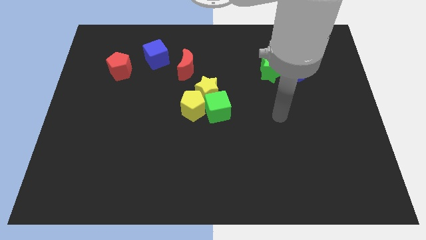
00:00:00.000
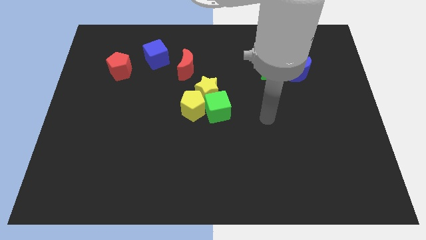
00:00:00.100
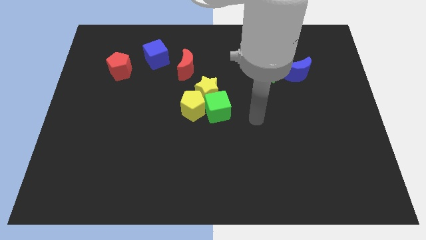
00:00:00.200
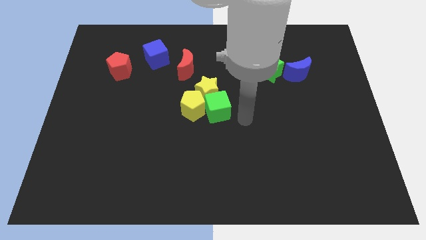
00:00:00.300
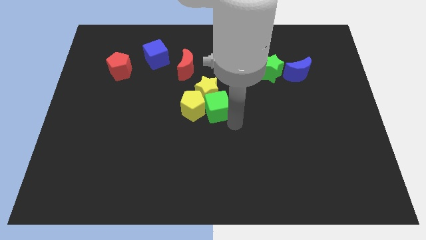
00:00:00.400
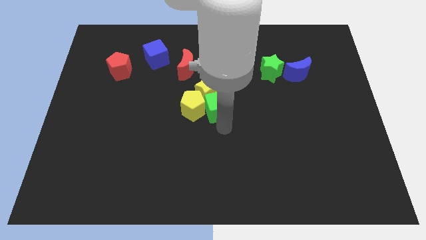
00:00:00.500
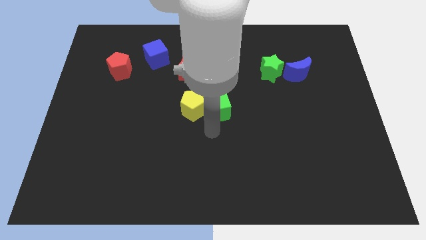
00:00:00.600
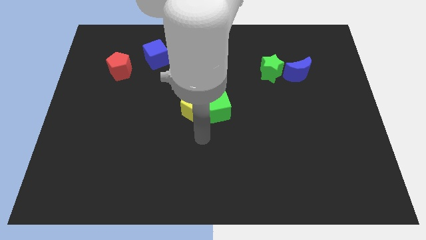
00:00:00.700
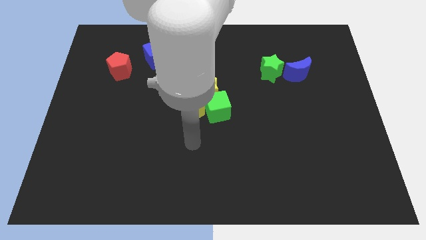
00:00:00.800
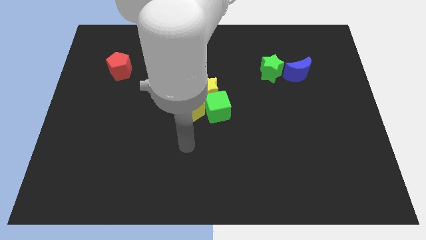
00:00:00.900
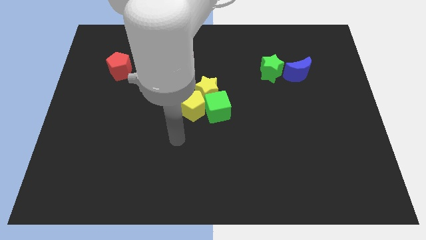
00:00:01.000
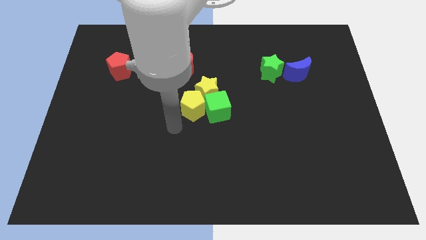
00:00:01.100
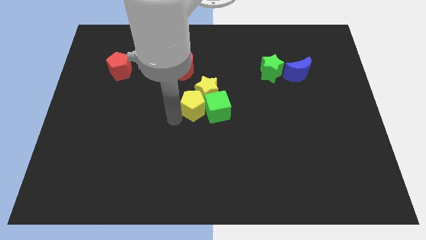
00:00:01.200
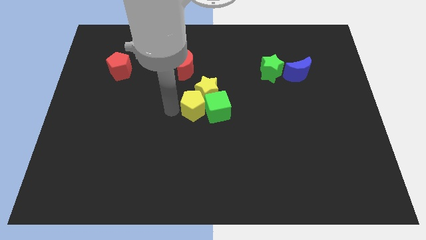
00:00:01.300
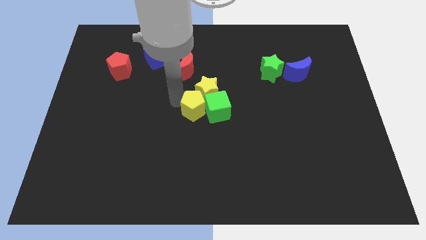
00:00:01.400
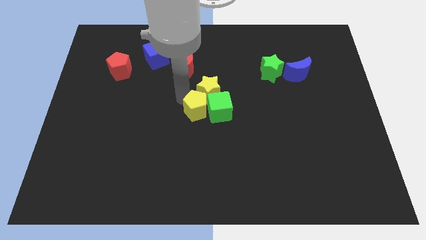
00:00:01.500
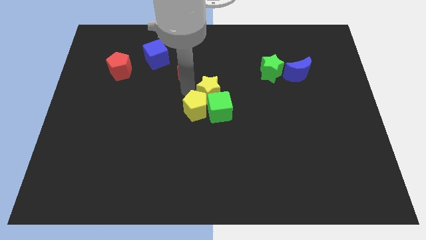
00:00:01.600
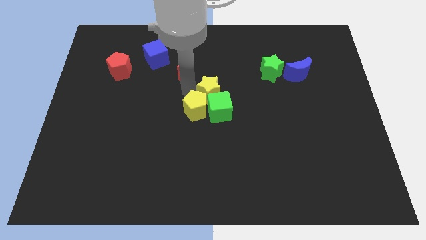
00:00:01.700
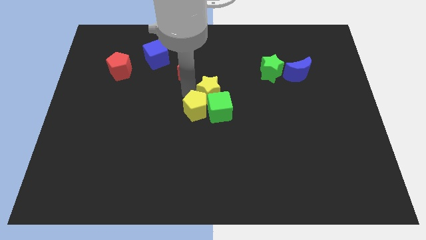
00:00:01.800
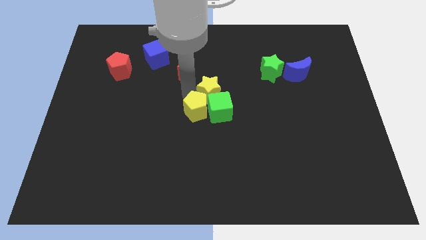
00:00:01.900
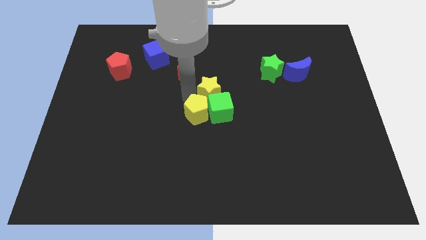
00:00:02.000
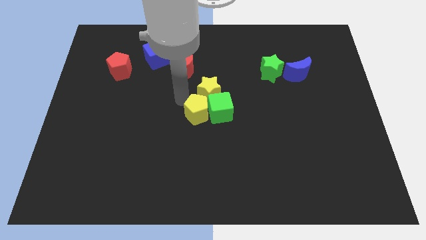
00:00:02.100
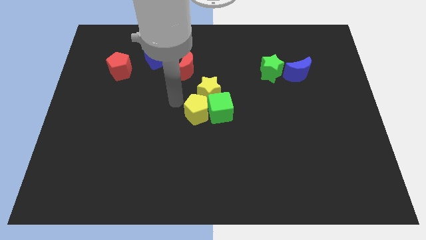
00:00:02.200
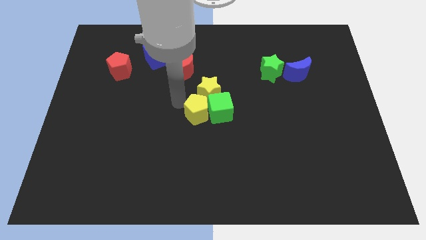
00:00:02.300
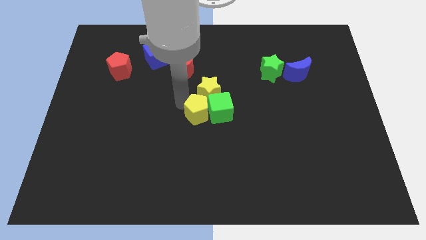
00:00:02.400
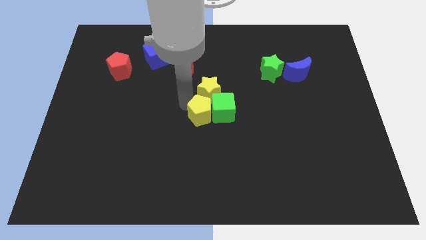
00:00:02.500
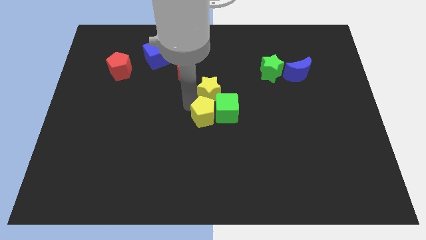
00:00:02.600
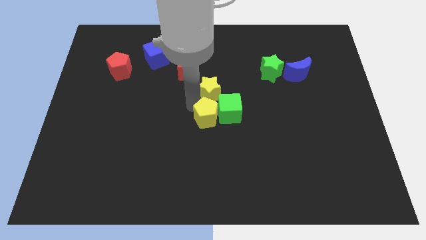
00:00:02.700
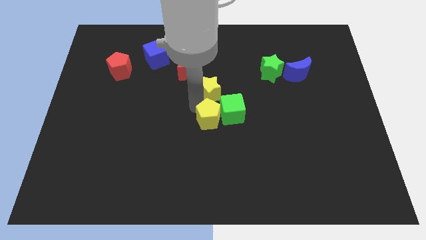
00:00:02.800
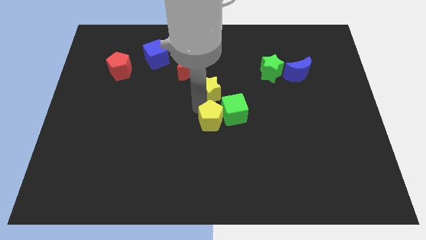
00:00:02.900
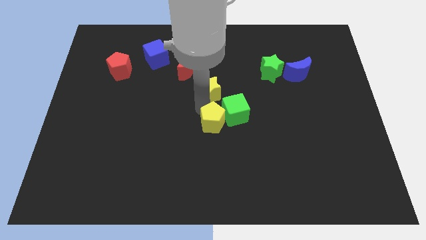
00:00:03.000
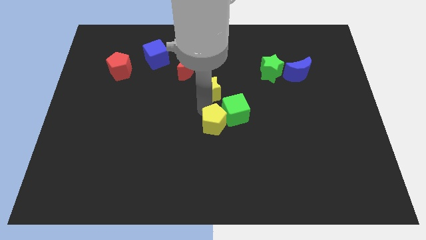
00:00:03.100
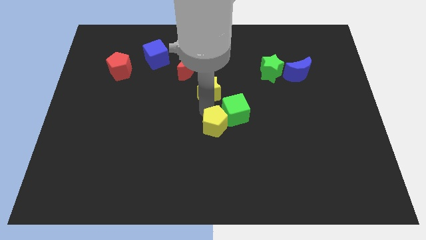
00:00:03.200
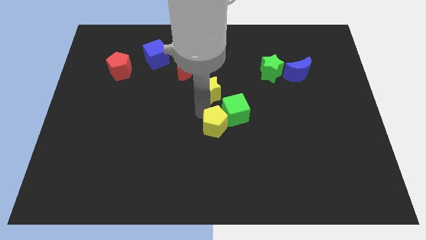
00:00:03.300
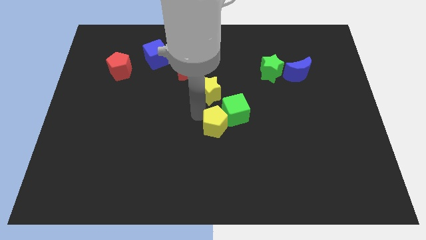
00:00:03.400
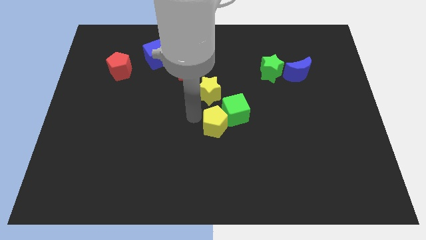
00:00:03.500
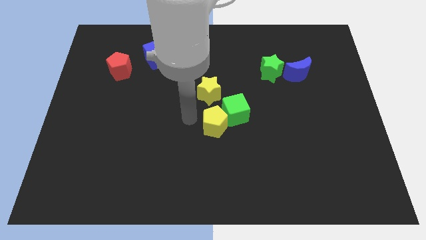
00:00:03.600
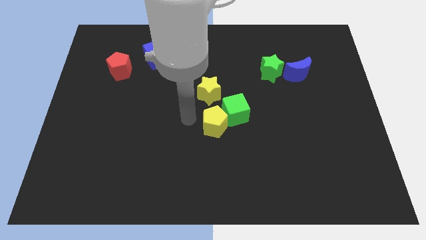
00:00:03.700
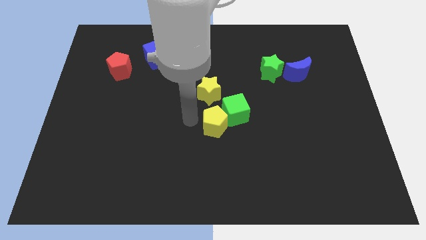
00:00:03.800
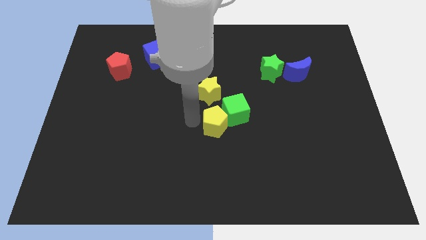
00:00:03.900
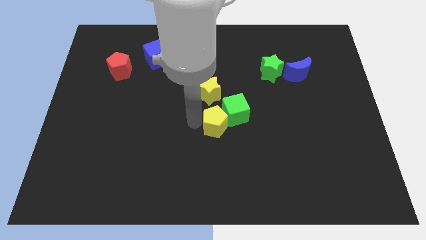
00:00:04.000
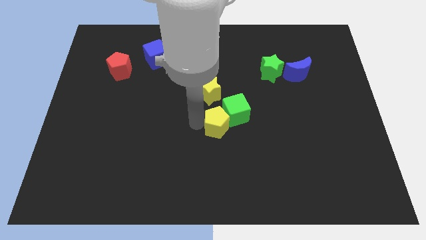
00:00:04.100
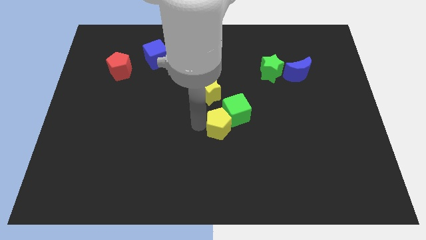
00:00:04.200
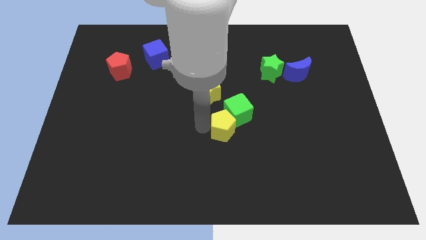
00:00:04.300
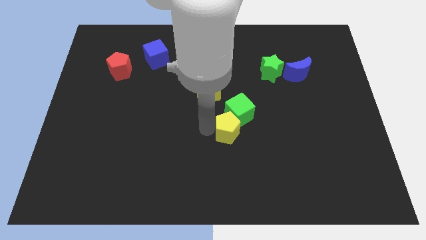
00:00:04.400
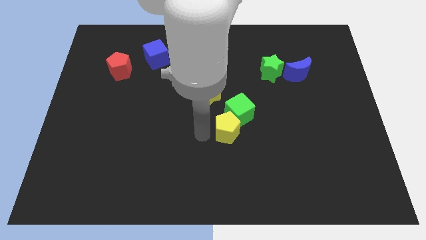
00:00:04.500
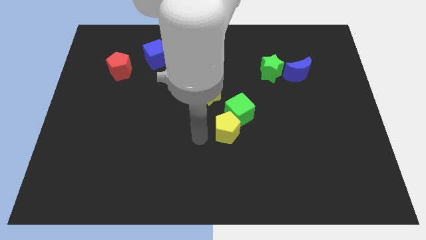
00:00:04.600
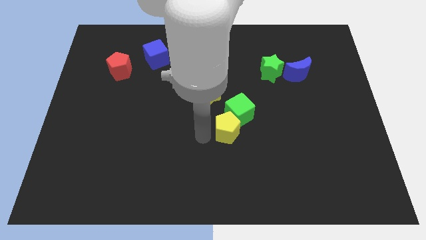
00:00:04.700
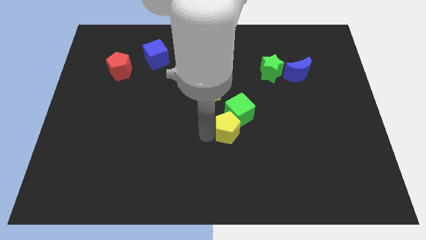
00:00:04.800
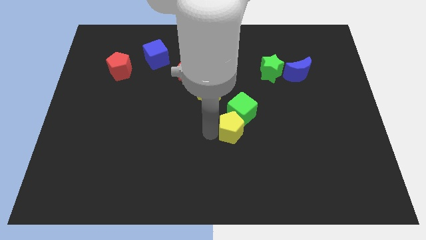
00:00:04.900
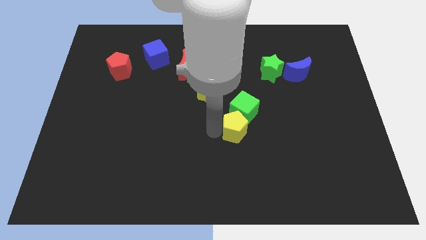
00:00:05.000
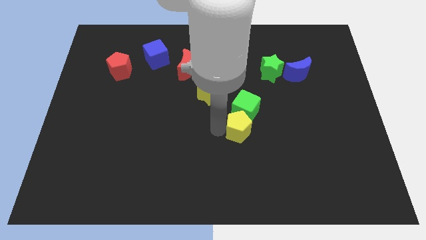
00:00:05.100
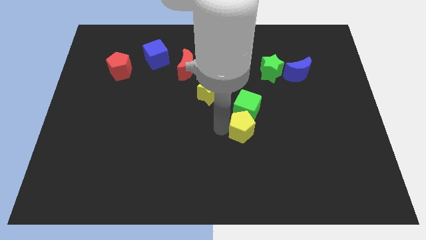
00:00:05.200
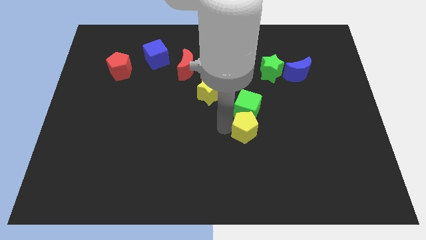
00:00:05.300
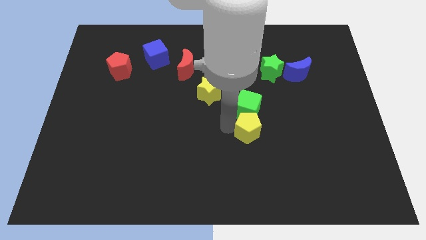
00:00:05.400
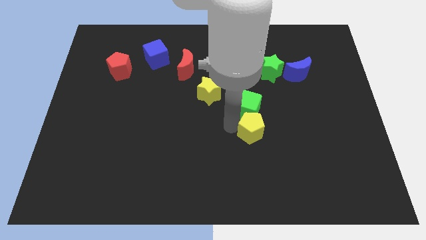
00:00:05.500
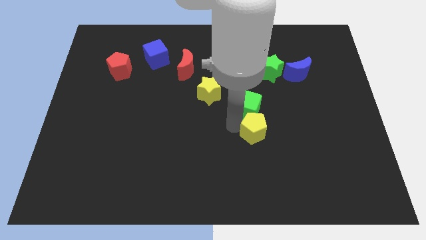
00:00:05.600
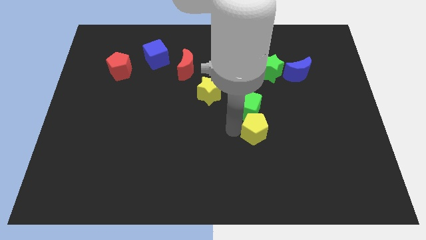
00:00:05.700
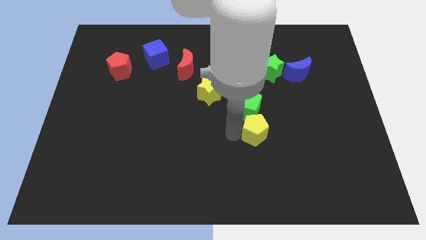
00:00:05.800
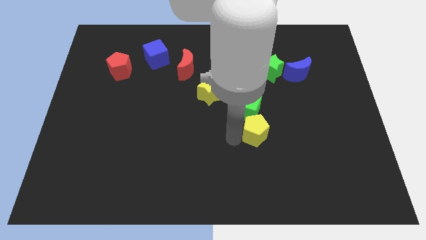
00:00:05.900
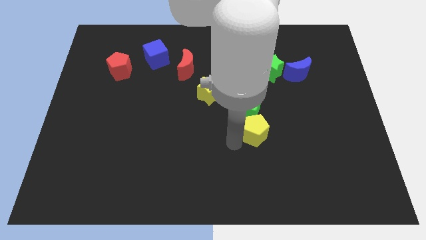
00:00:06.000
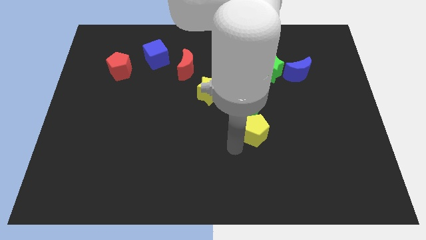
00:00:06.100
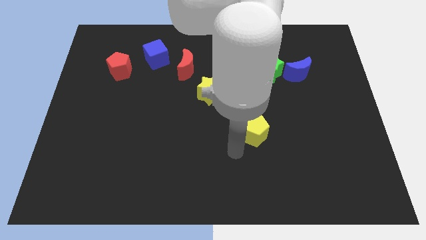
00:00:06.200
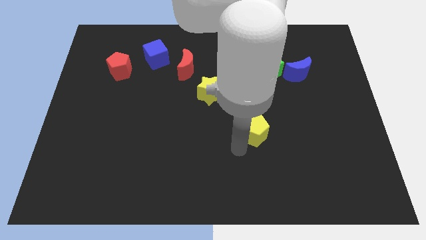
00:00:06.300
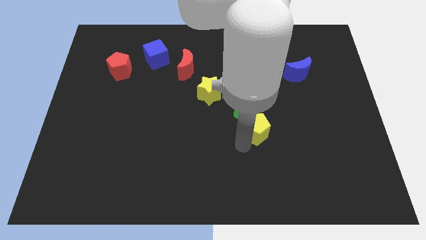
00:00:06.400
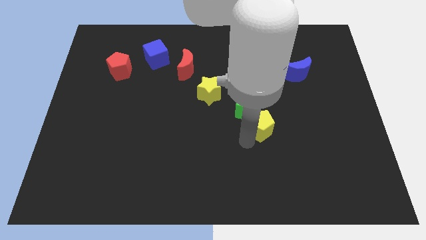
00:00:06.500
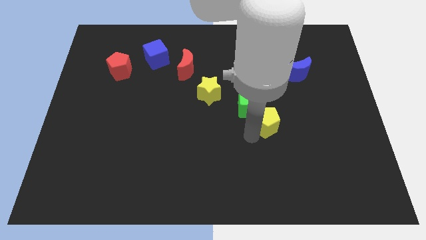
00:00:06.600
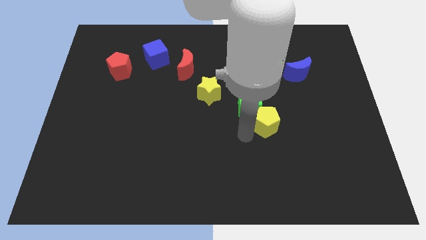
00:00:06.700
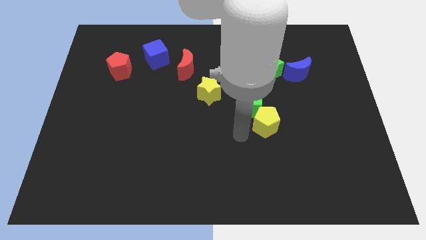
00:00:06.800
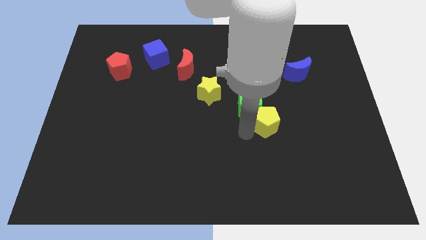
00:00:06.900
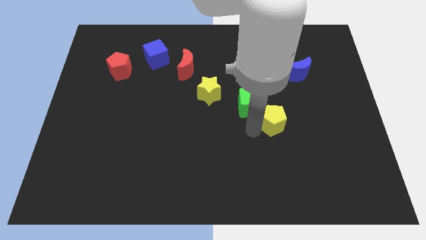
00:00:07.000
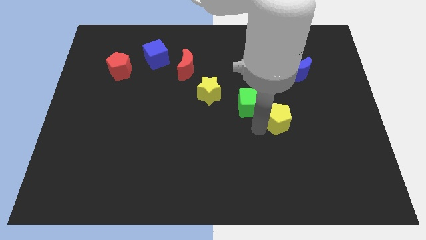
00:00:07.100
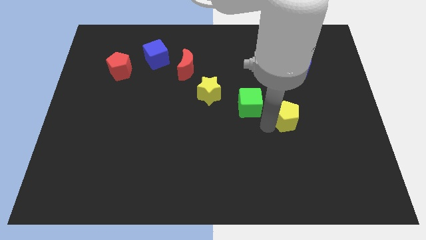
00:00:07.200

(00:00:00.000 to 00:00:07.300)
move the yellow pentagon right

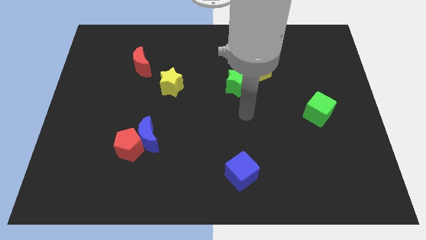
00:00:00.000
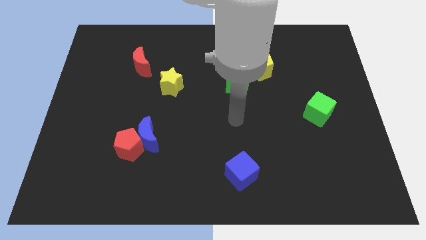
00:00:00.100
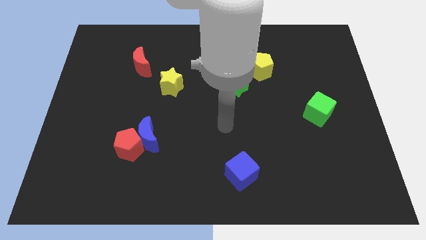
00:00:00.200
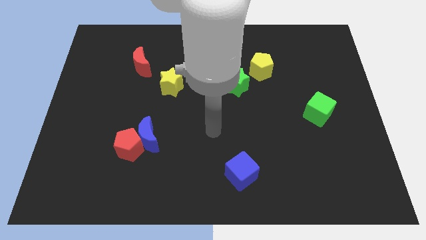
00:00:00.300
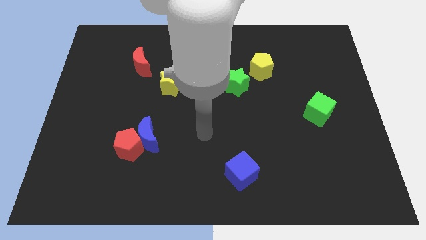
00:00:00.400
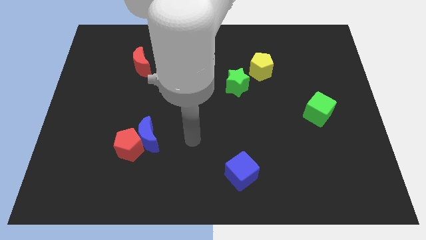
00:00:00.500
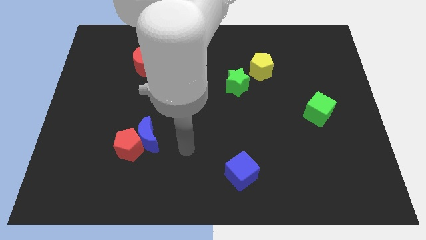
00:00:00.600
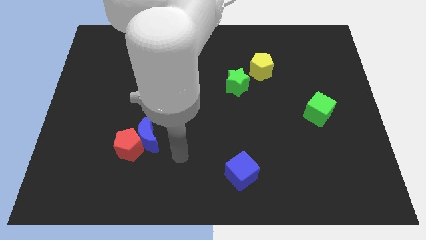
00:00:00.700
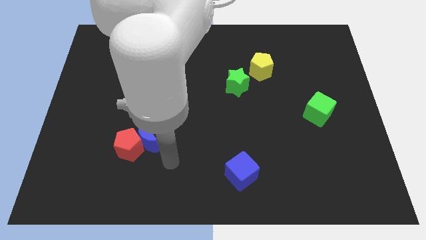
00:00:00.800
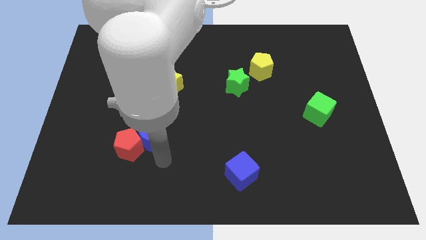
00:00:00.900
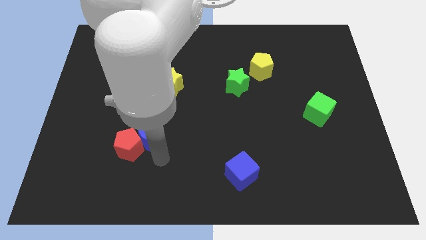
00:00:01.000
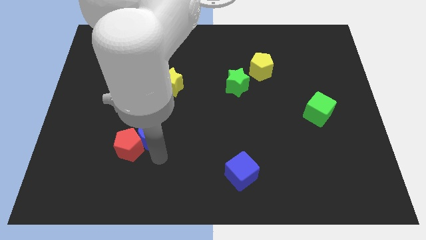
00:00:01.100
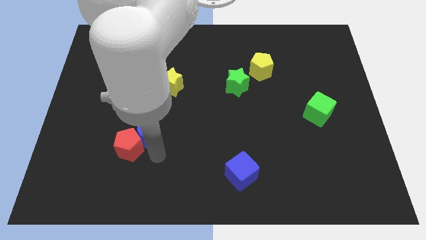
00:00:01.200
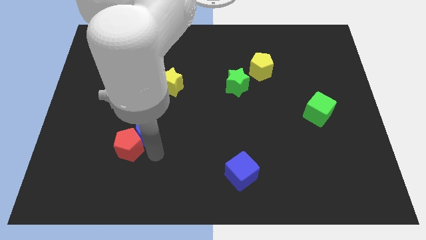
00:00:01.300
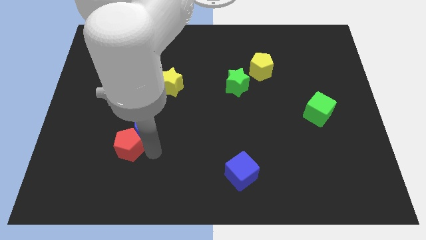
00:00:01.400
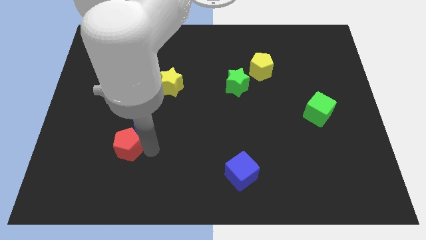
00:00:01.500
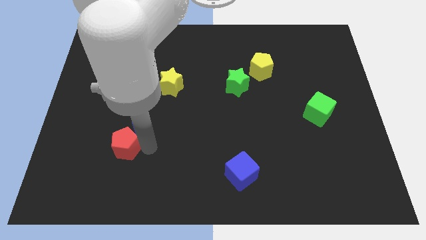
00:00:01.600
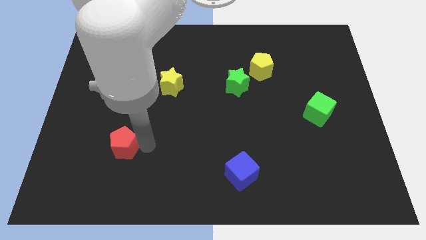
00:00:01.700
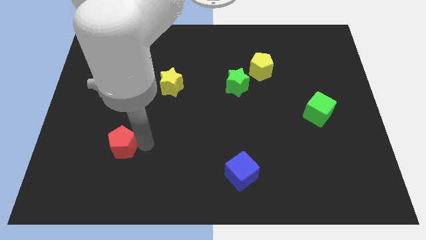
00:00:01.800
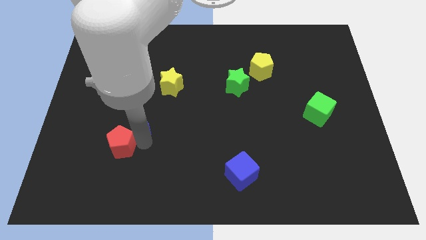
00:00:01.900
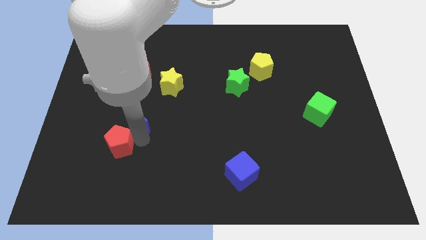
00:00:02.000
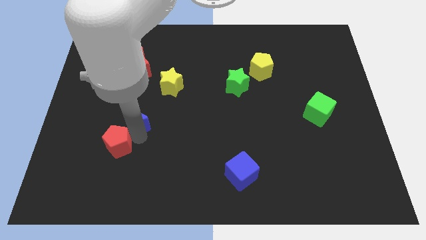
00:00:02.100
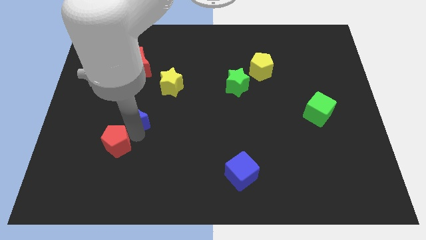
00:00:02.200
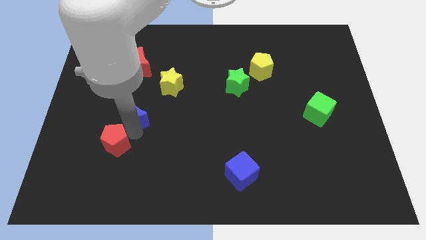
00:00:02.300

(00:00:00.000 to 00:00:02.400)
push the blue moon a little bit upwards and to the left diagonally
